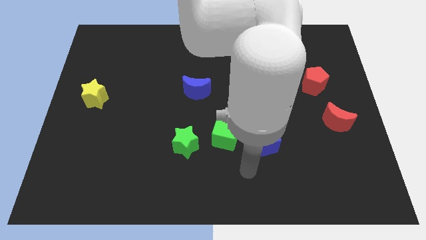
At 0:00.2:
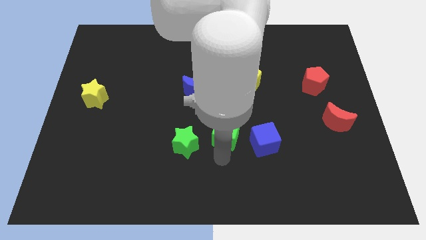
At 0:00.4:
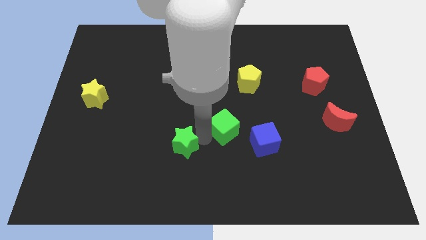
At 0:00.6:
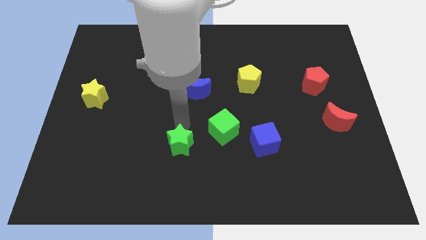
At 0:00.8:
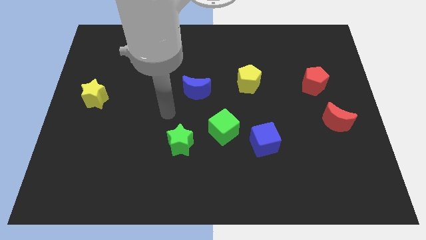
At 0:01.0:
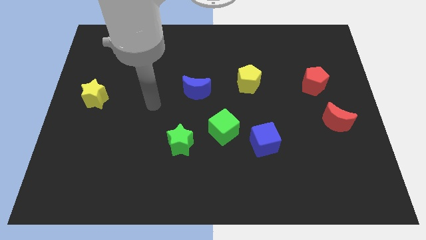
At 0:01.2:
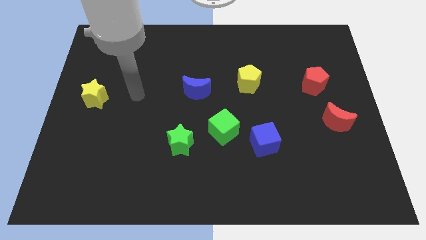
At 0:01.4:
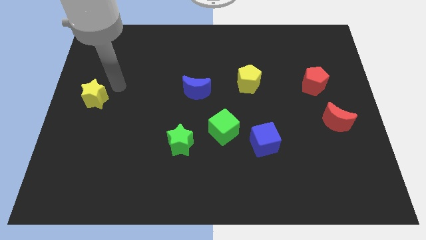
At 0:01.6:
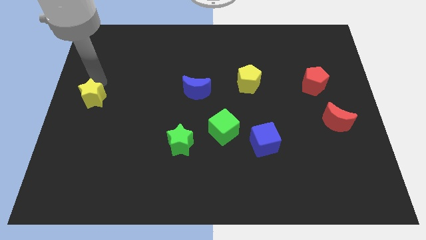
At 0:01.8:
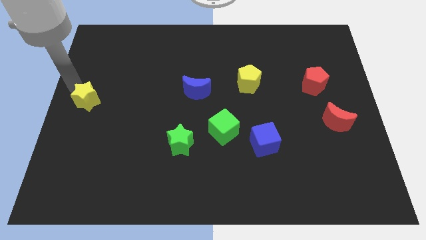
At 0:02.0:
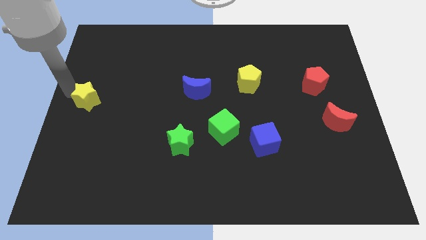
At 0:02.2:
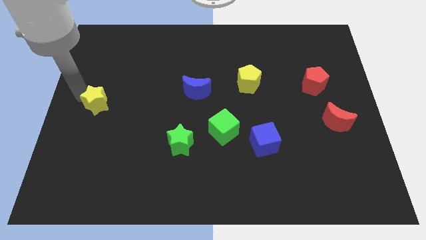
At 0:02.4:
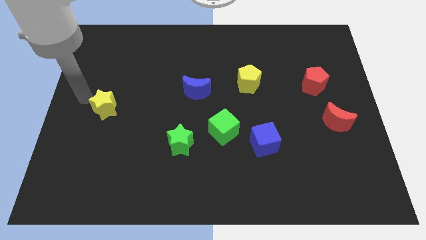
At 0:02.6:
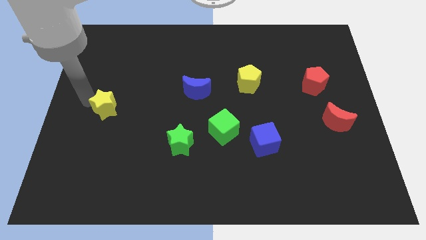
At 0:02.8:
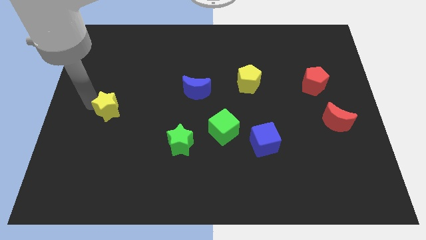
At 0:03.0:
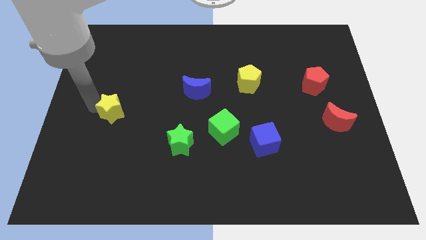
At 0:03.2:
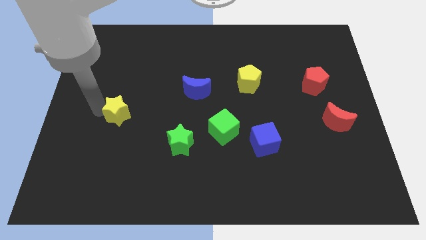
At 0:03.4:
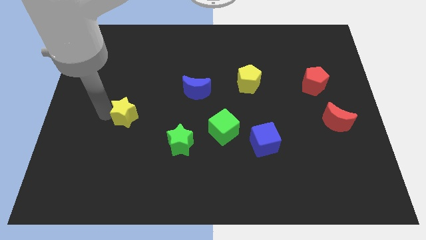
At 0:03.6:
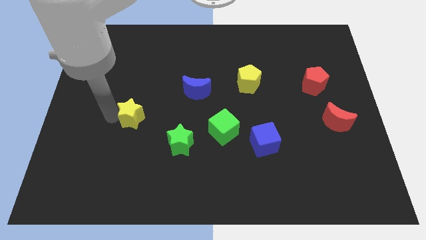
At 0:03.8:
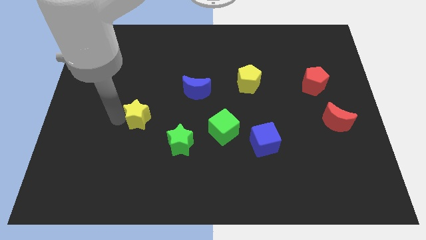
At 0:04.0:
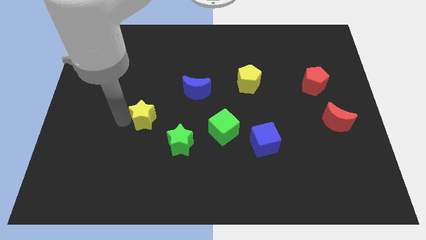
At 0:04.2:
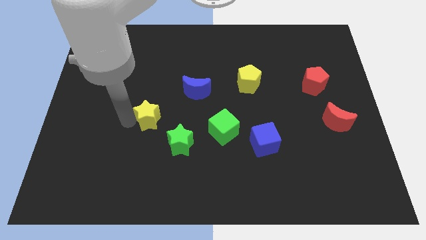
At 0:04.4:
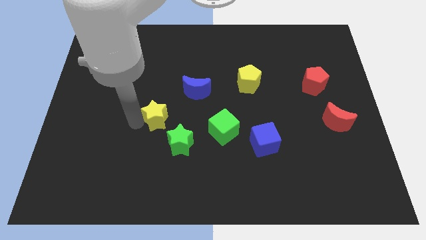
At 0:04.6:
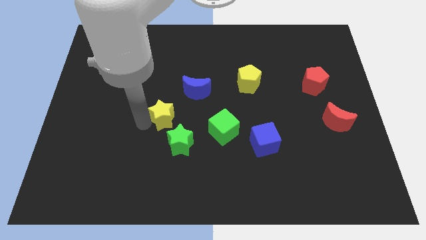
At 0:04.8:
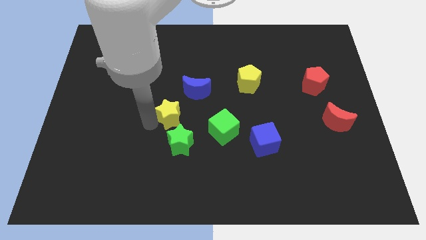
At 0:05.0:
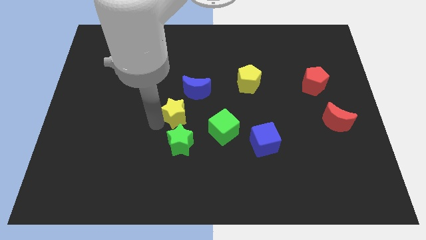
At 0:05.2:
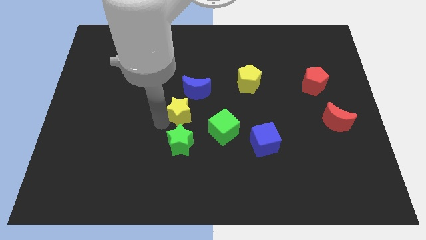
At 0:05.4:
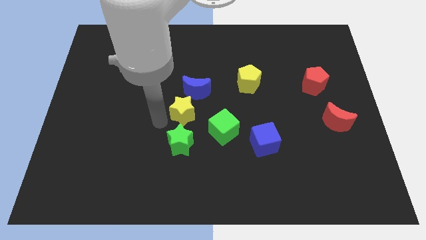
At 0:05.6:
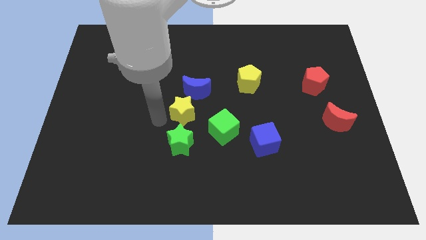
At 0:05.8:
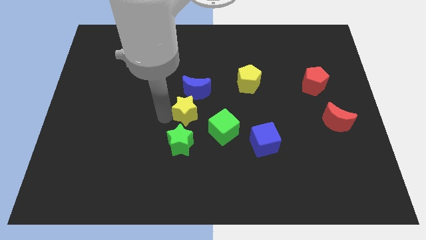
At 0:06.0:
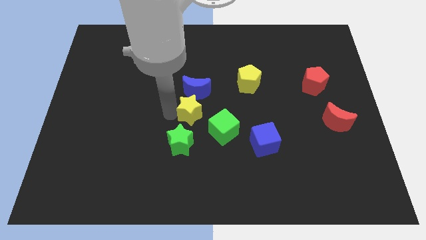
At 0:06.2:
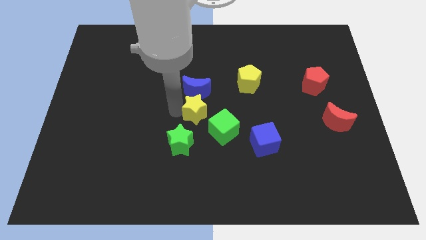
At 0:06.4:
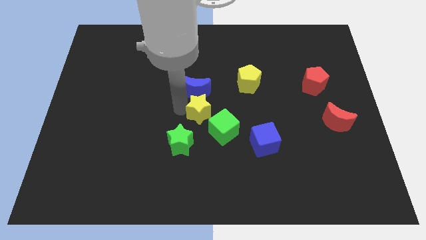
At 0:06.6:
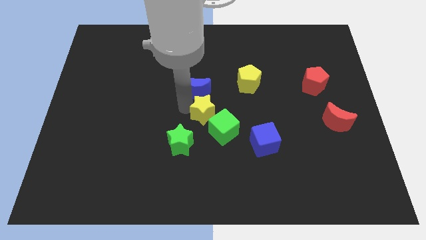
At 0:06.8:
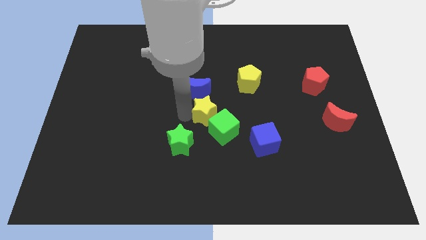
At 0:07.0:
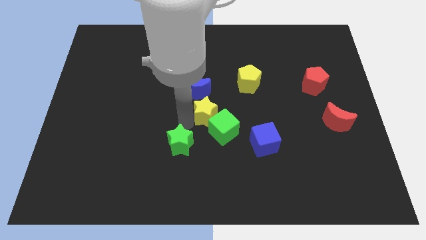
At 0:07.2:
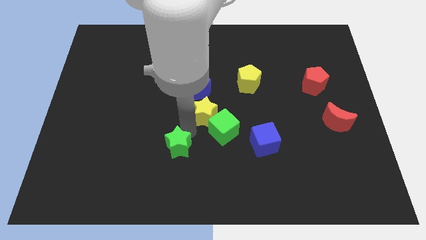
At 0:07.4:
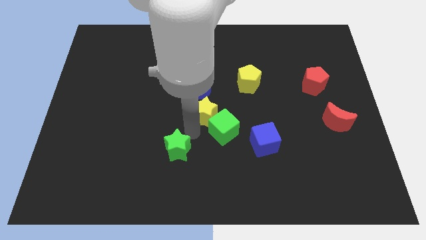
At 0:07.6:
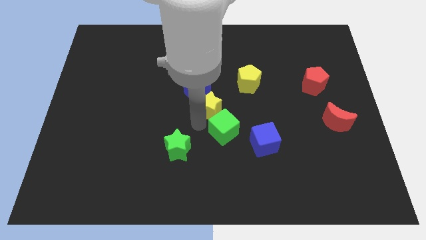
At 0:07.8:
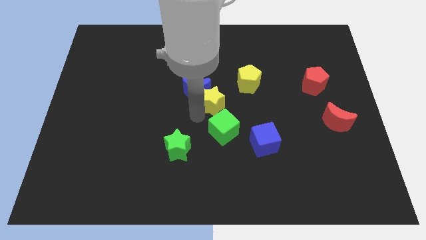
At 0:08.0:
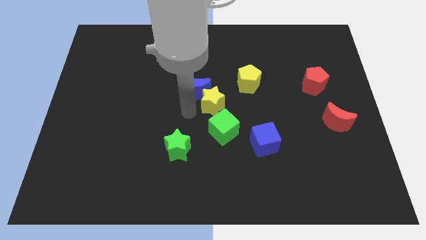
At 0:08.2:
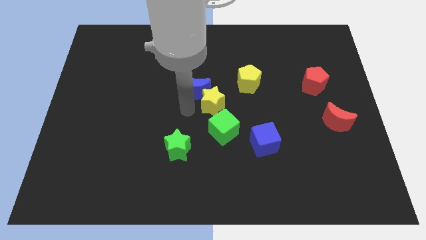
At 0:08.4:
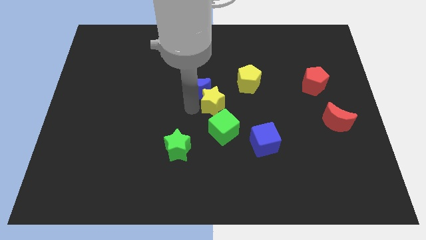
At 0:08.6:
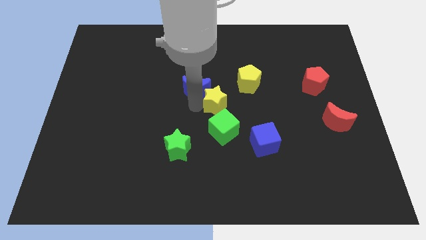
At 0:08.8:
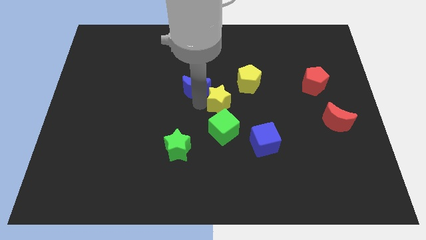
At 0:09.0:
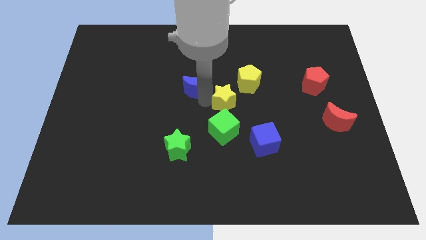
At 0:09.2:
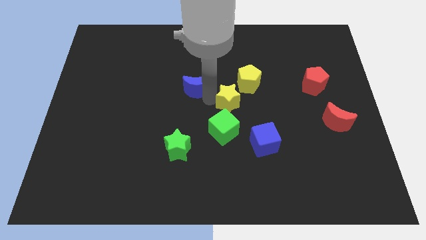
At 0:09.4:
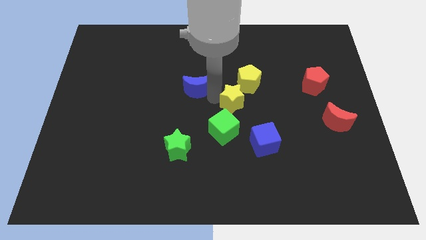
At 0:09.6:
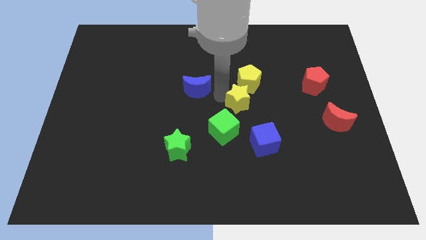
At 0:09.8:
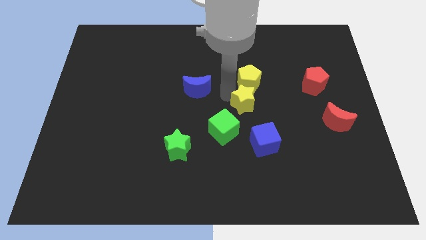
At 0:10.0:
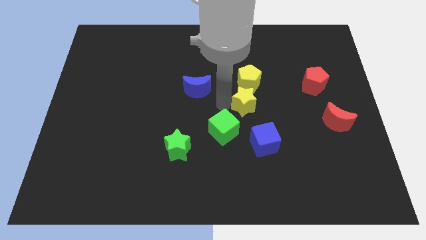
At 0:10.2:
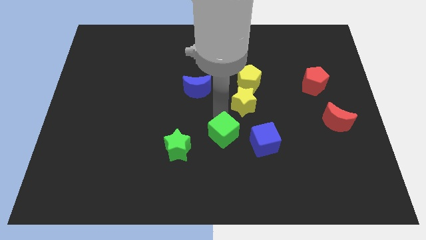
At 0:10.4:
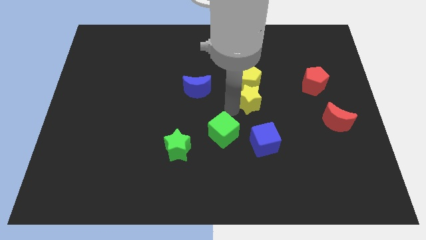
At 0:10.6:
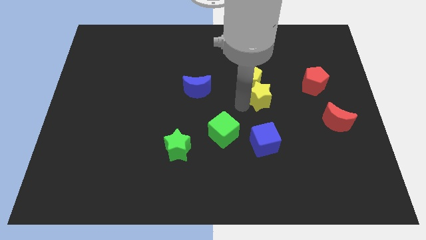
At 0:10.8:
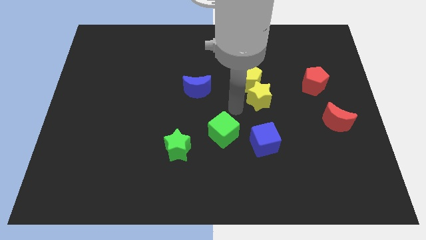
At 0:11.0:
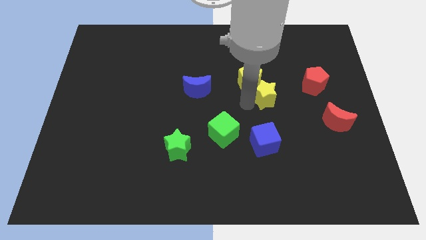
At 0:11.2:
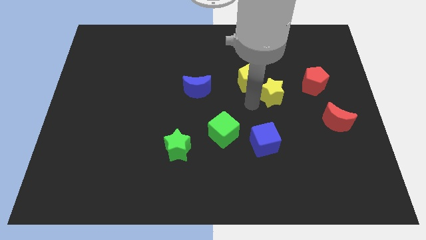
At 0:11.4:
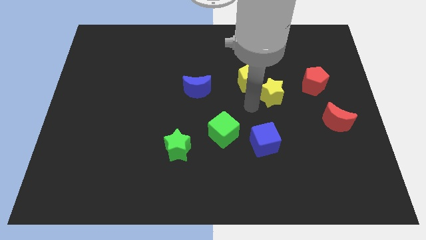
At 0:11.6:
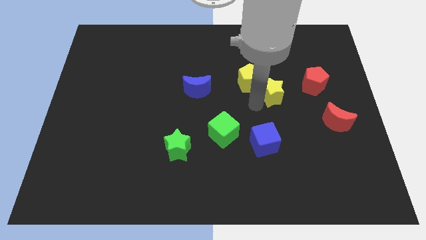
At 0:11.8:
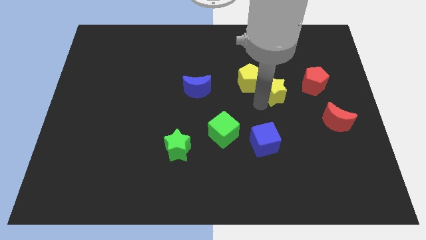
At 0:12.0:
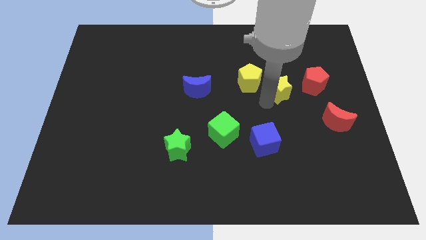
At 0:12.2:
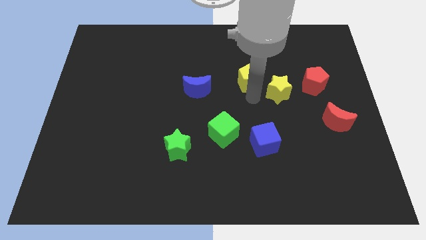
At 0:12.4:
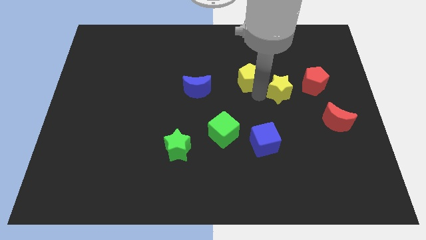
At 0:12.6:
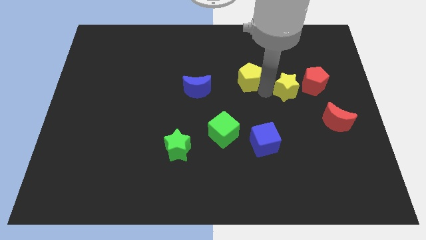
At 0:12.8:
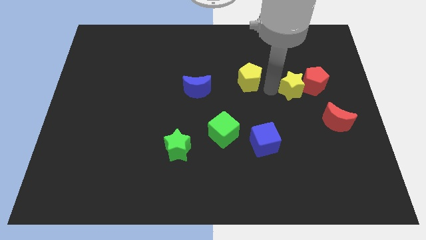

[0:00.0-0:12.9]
move the yellow star towards the red pentagon

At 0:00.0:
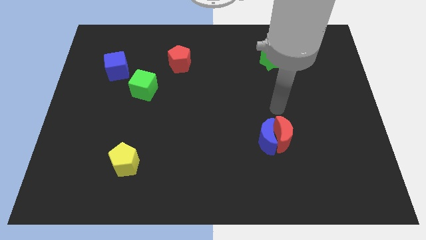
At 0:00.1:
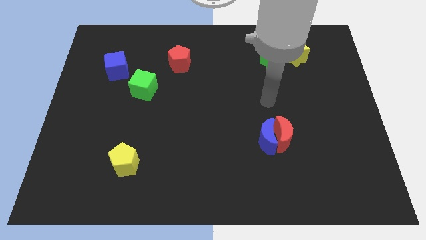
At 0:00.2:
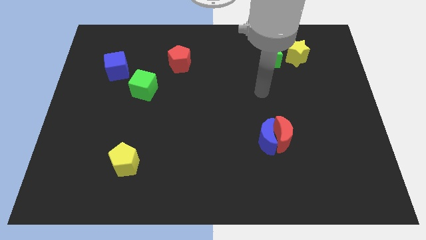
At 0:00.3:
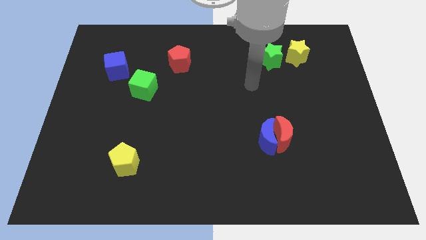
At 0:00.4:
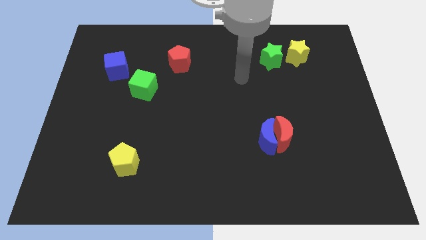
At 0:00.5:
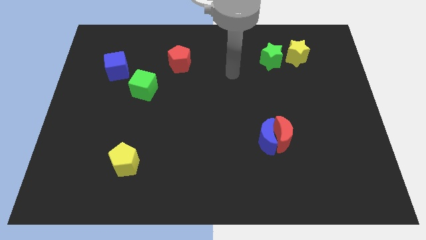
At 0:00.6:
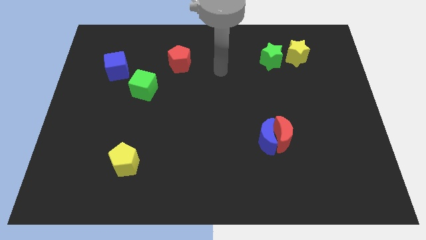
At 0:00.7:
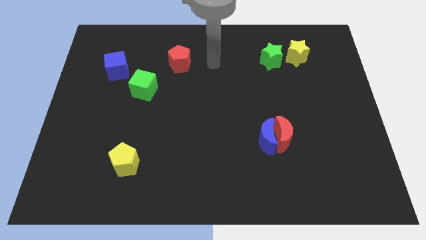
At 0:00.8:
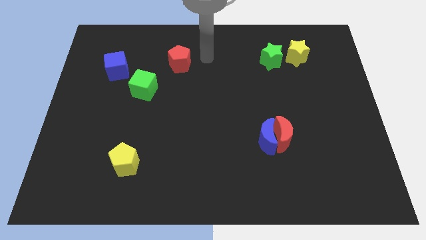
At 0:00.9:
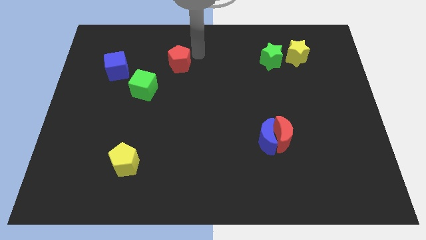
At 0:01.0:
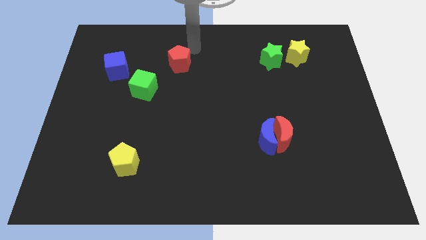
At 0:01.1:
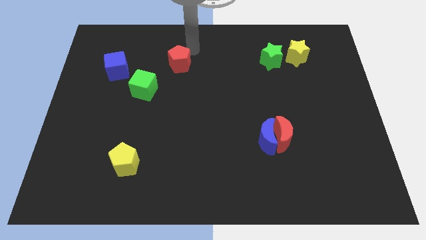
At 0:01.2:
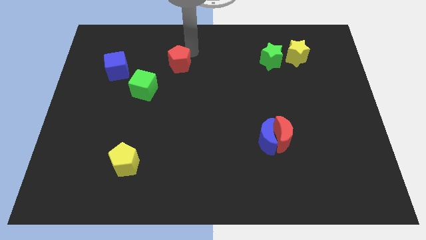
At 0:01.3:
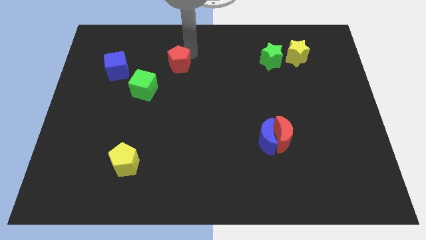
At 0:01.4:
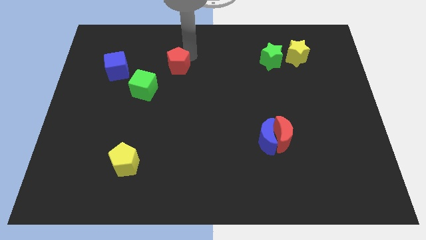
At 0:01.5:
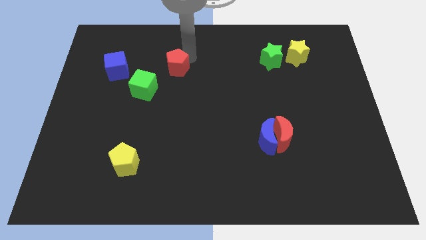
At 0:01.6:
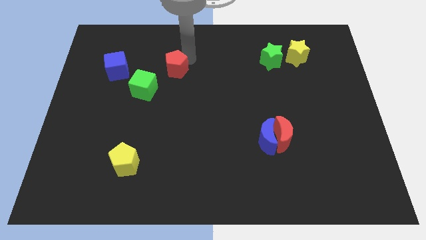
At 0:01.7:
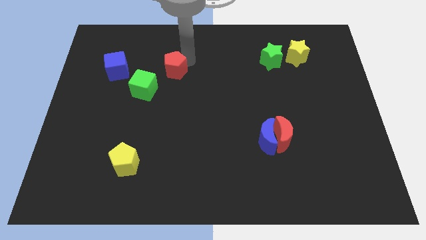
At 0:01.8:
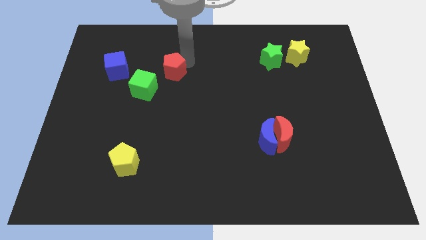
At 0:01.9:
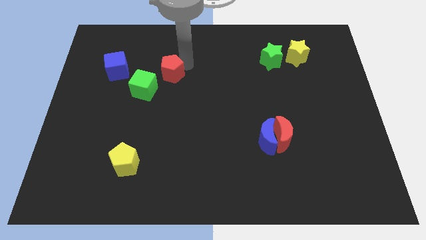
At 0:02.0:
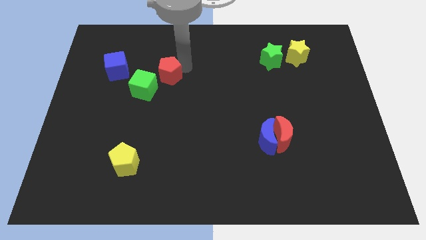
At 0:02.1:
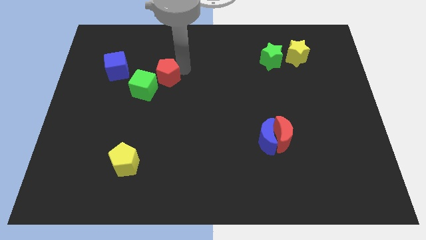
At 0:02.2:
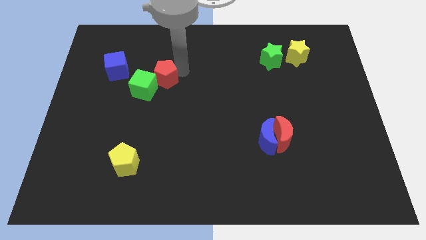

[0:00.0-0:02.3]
slide the red pentagon next to the green cube
